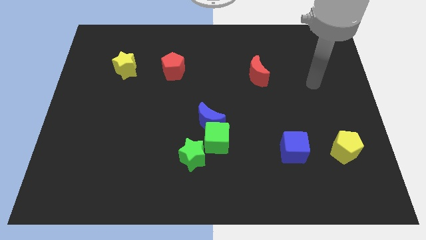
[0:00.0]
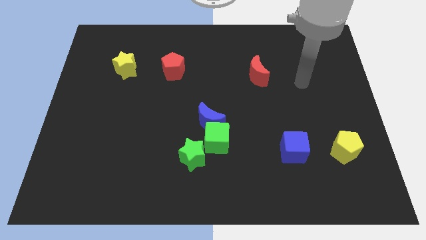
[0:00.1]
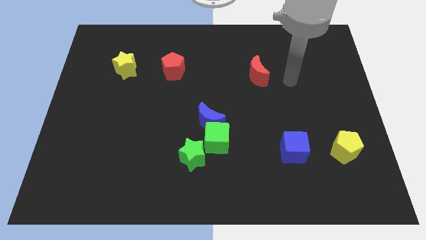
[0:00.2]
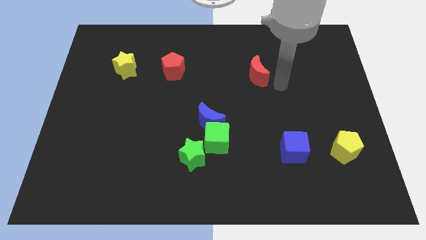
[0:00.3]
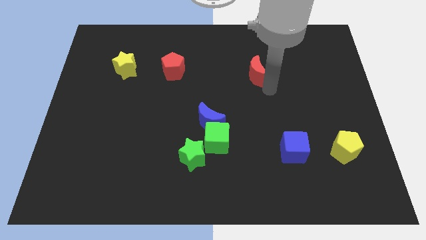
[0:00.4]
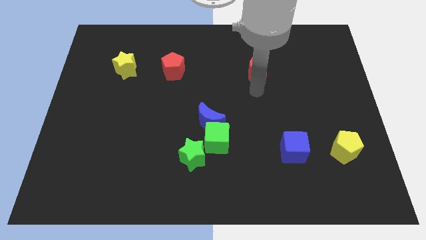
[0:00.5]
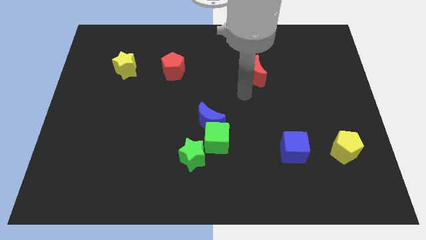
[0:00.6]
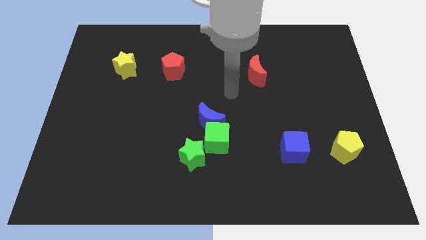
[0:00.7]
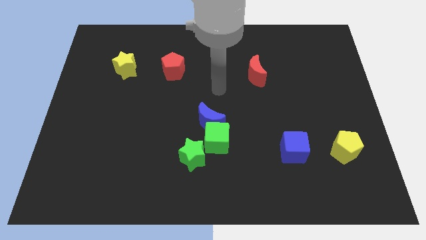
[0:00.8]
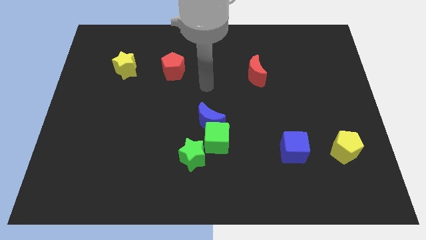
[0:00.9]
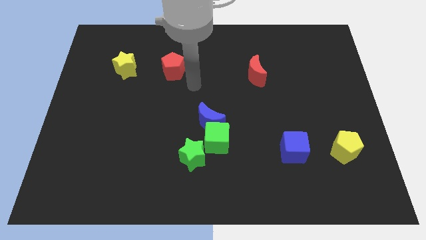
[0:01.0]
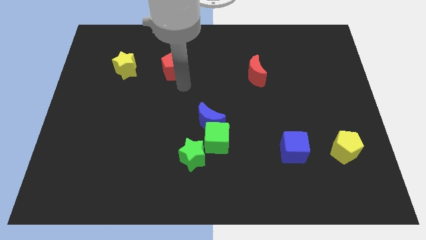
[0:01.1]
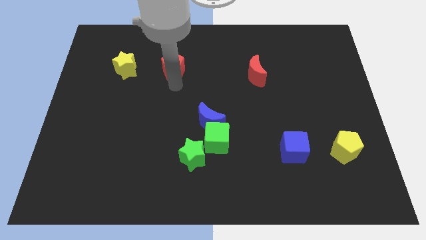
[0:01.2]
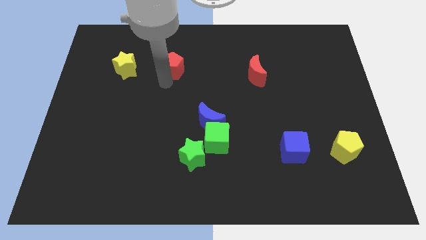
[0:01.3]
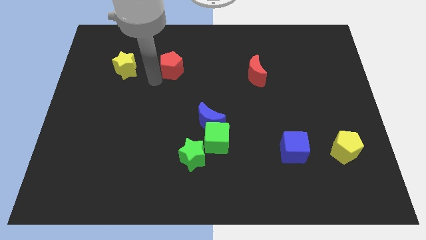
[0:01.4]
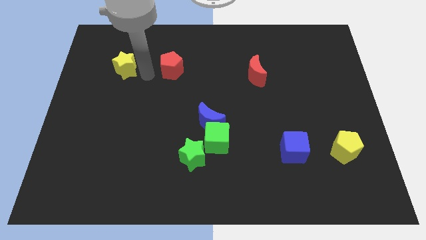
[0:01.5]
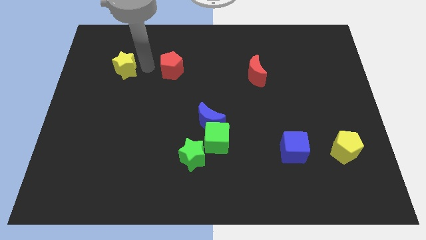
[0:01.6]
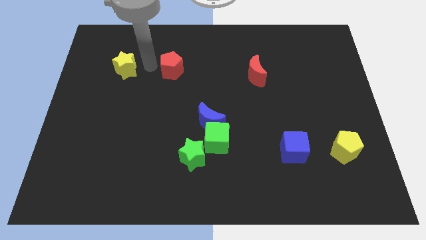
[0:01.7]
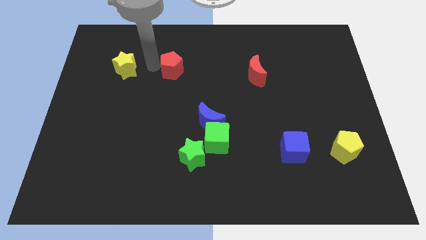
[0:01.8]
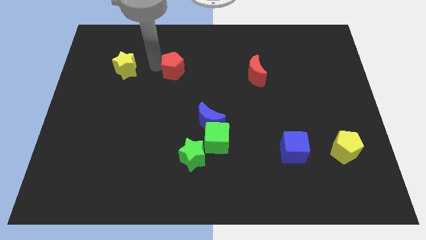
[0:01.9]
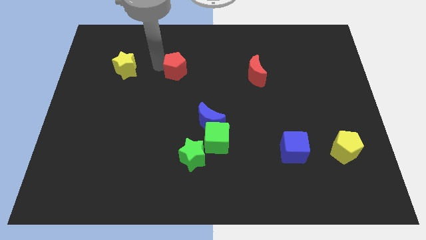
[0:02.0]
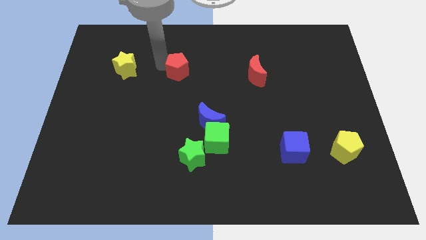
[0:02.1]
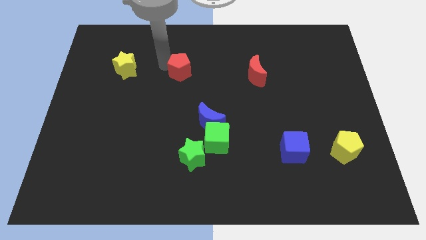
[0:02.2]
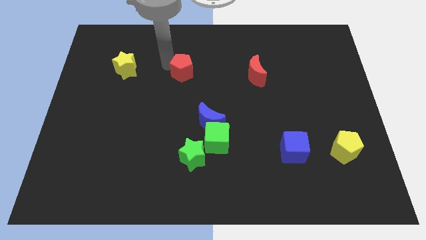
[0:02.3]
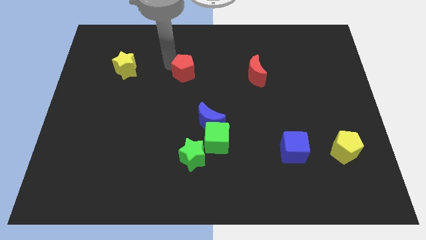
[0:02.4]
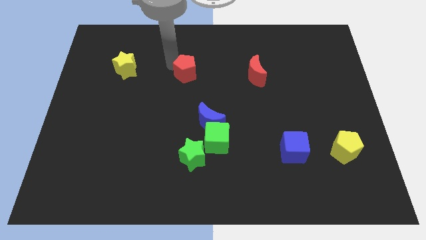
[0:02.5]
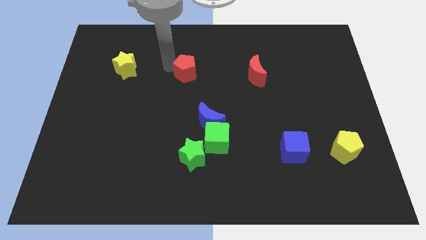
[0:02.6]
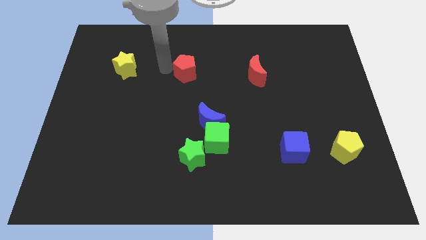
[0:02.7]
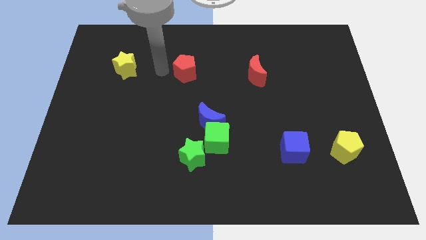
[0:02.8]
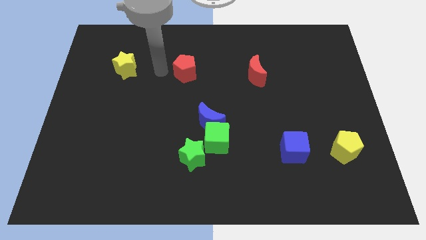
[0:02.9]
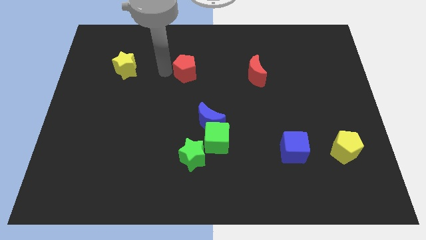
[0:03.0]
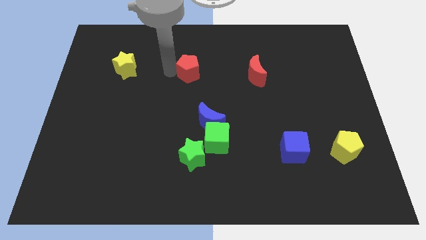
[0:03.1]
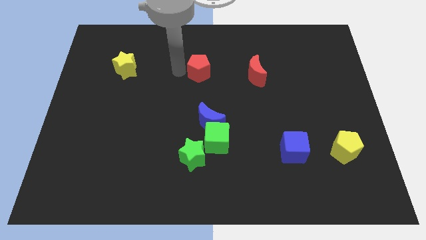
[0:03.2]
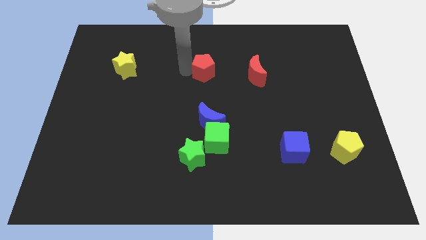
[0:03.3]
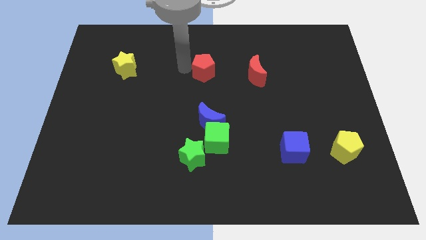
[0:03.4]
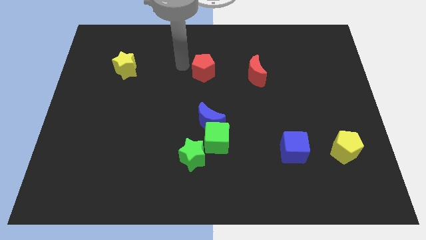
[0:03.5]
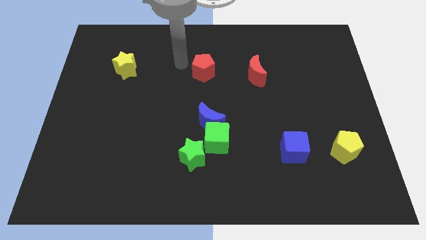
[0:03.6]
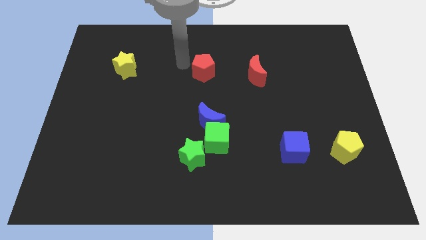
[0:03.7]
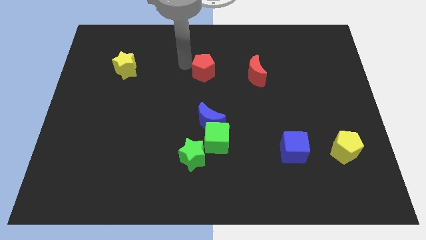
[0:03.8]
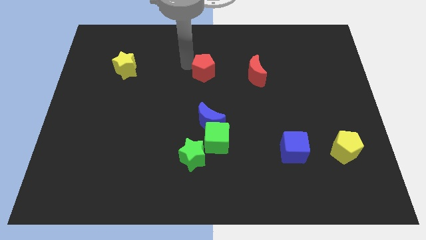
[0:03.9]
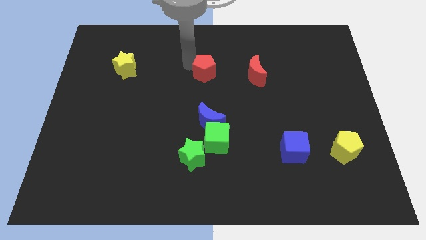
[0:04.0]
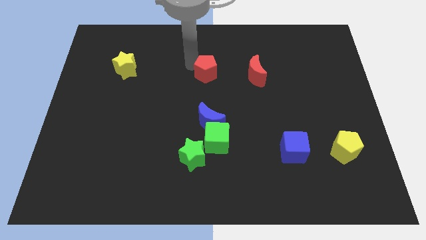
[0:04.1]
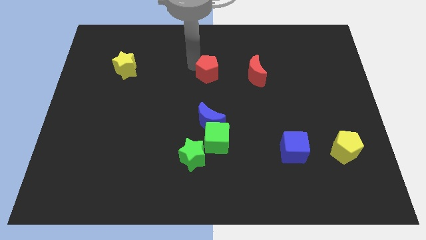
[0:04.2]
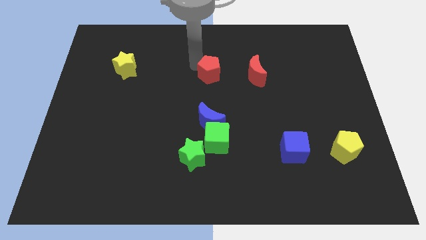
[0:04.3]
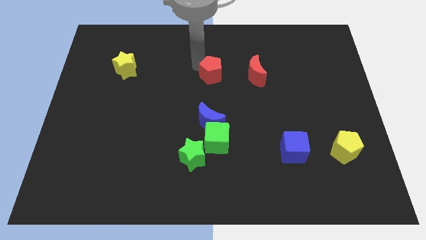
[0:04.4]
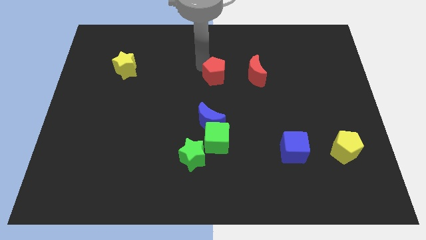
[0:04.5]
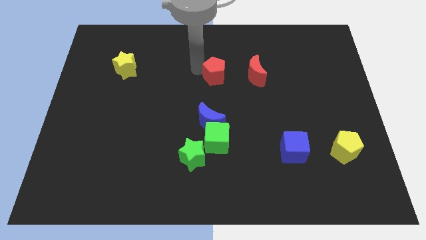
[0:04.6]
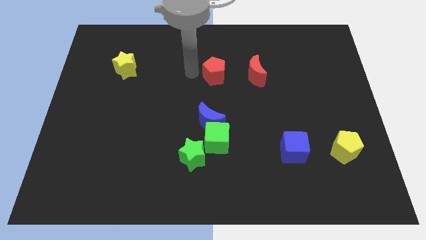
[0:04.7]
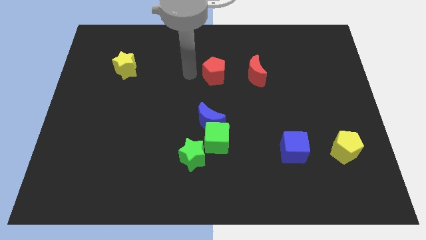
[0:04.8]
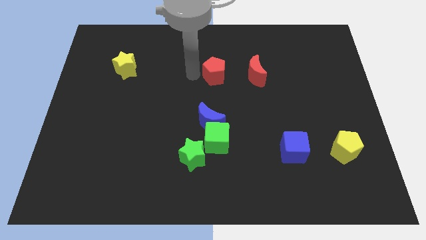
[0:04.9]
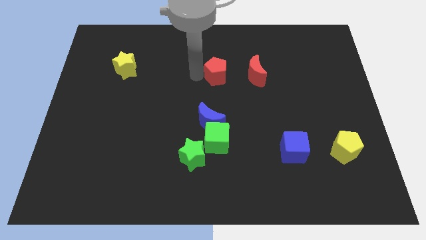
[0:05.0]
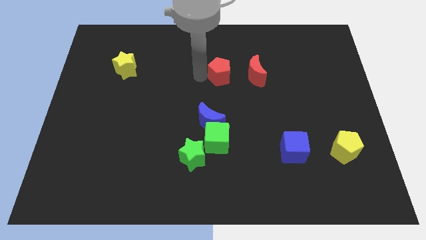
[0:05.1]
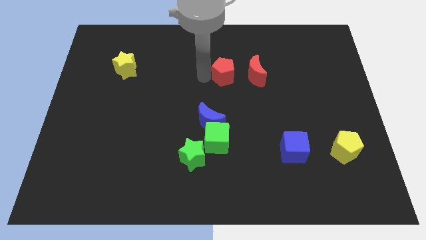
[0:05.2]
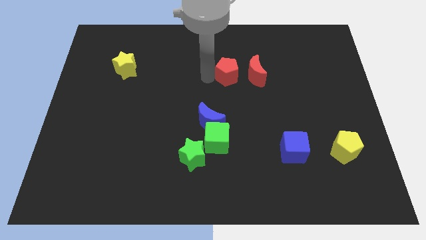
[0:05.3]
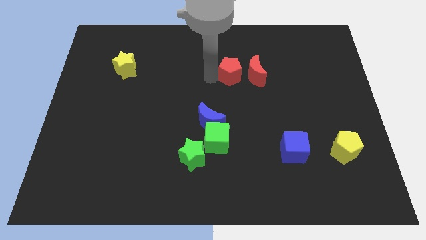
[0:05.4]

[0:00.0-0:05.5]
slide the red pentagon to the red moon

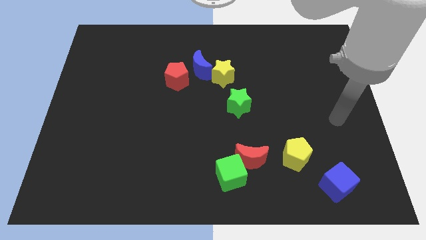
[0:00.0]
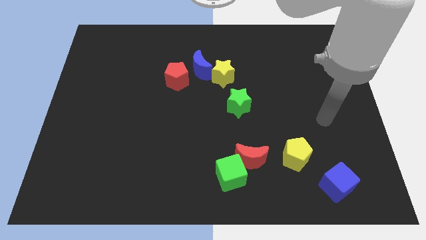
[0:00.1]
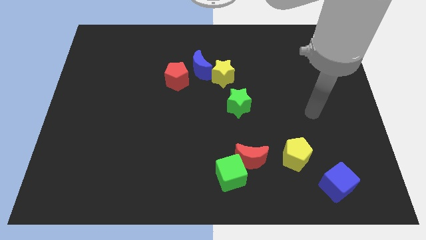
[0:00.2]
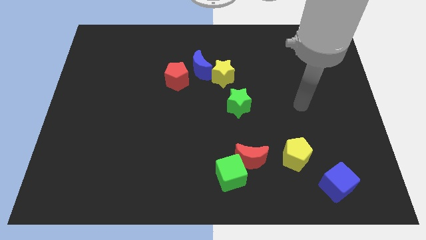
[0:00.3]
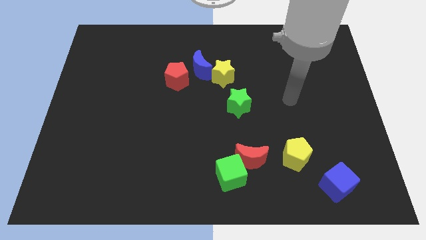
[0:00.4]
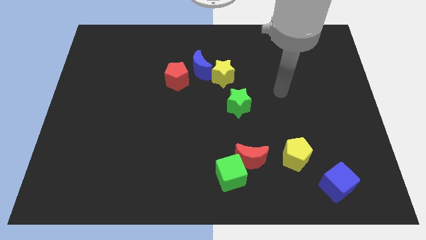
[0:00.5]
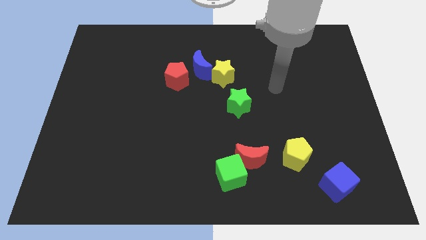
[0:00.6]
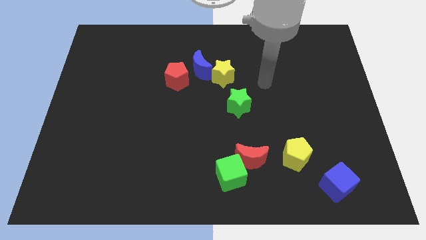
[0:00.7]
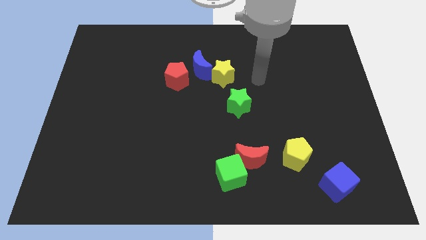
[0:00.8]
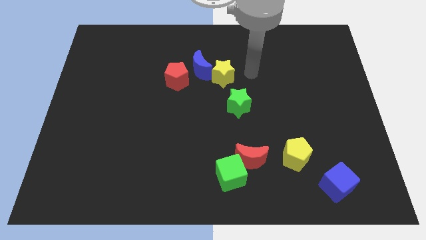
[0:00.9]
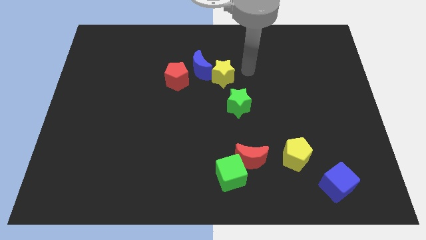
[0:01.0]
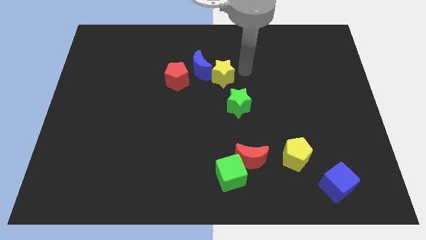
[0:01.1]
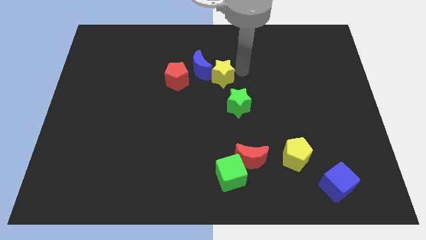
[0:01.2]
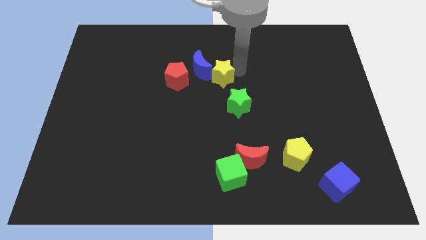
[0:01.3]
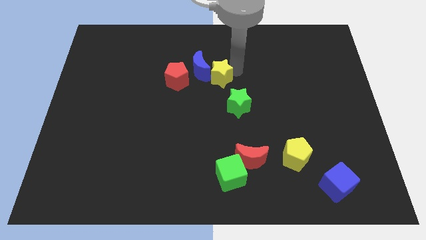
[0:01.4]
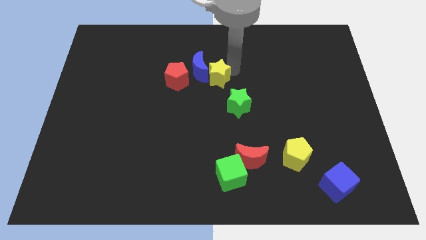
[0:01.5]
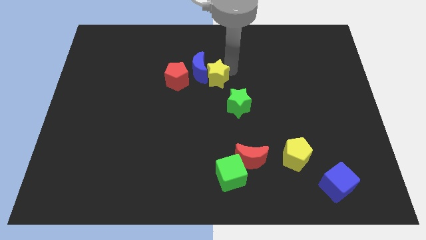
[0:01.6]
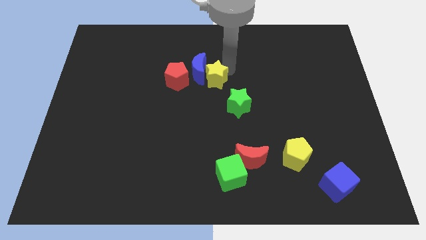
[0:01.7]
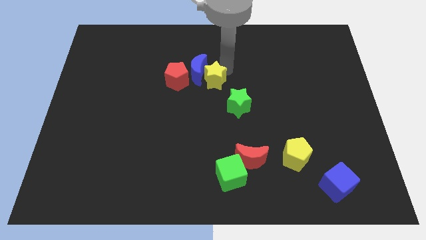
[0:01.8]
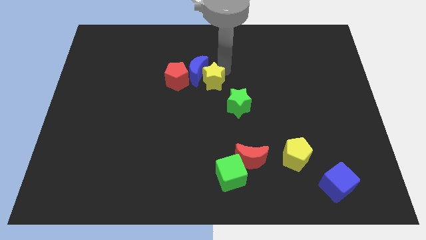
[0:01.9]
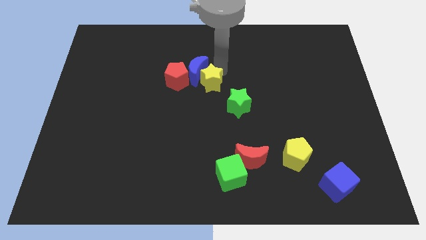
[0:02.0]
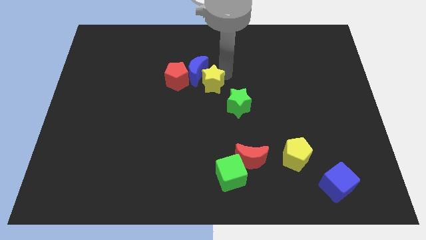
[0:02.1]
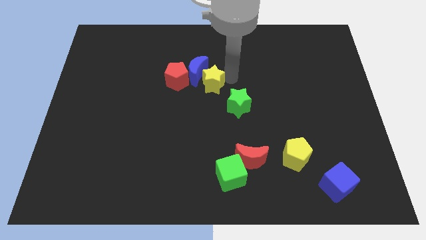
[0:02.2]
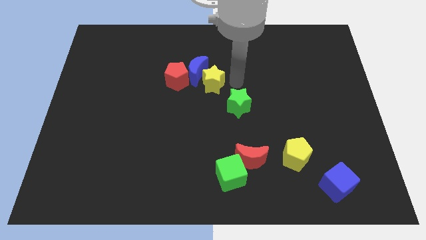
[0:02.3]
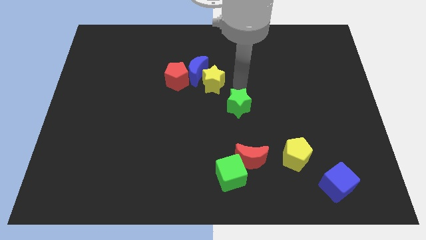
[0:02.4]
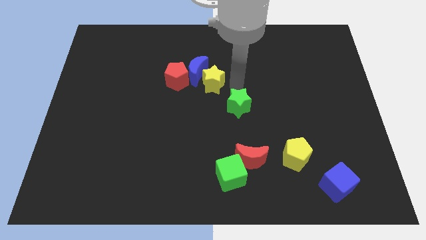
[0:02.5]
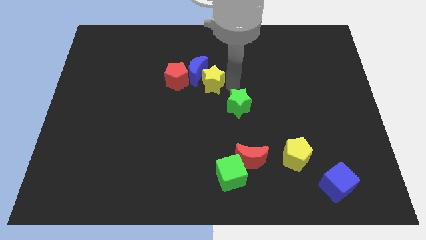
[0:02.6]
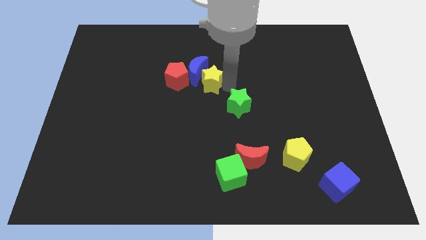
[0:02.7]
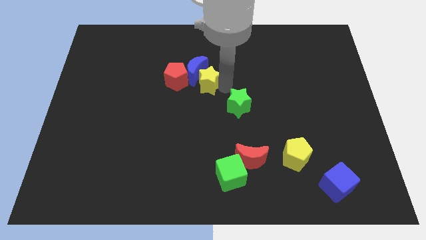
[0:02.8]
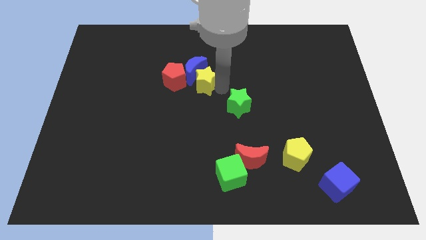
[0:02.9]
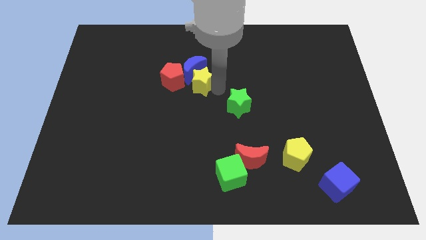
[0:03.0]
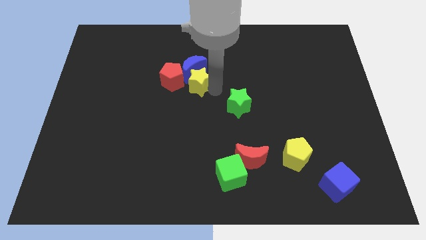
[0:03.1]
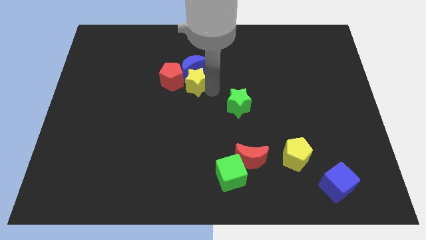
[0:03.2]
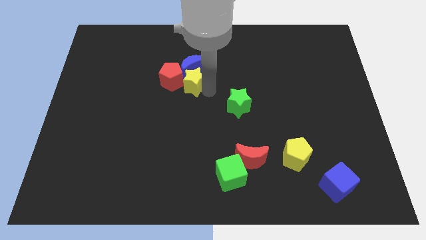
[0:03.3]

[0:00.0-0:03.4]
slide the yellow star next to the red pentagon
